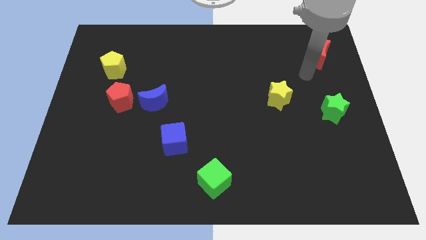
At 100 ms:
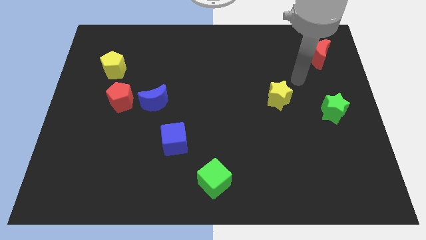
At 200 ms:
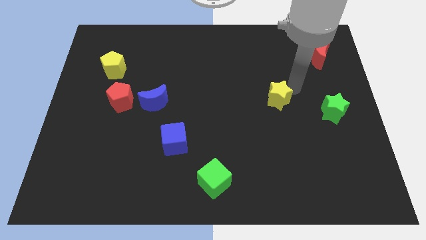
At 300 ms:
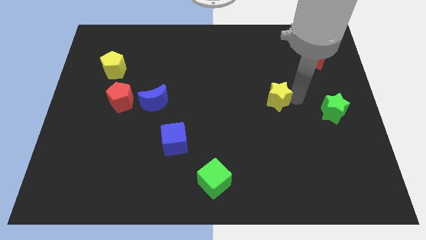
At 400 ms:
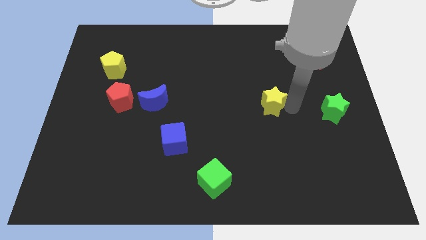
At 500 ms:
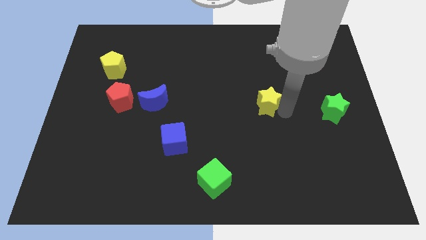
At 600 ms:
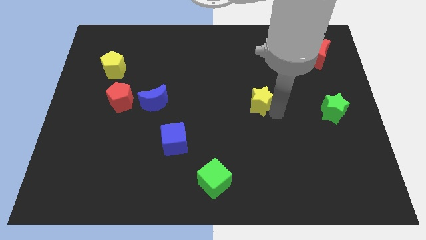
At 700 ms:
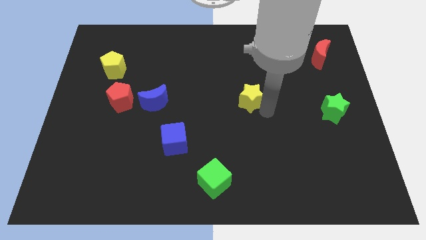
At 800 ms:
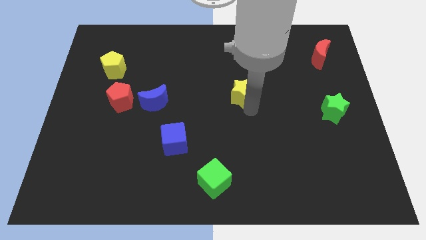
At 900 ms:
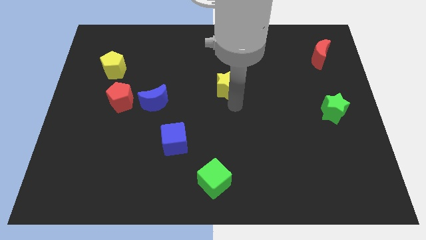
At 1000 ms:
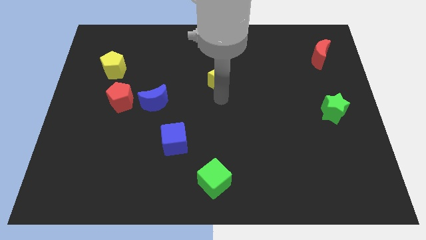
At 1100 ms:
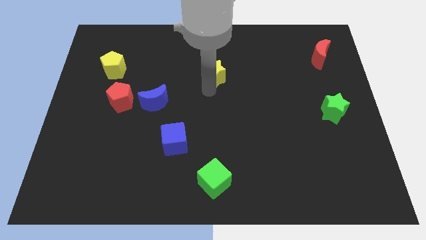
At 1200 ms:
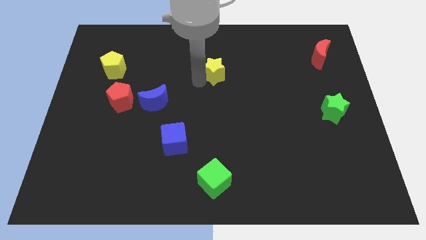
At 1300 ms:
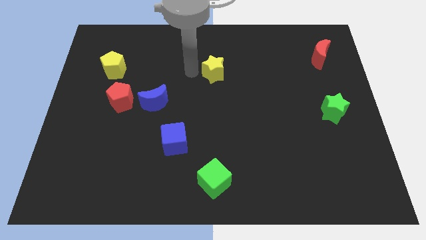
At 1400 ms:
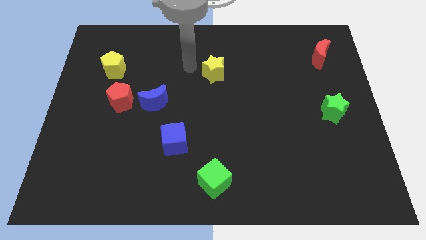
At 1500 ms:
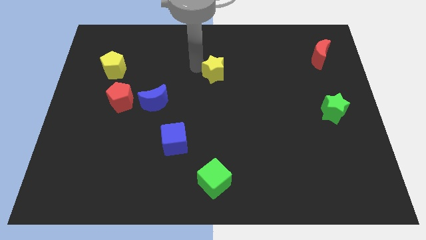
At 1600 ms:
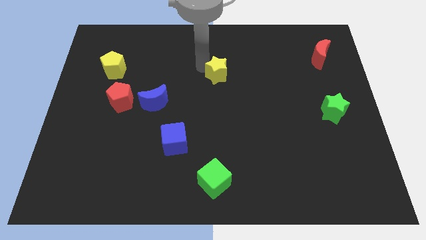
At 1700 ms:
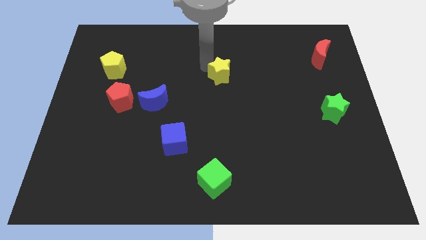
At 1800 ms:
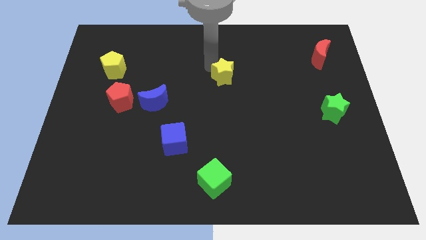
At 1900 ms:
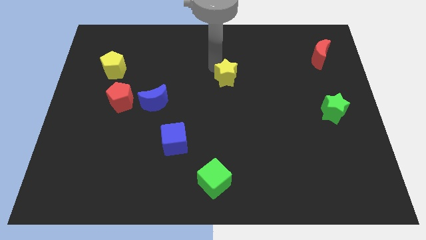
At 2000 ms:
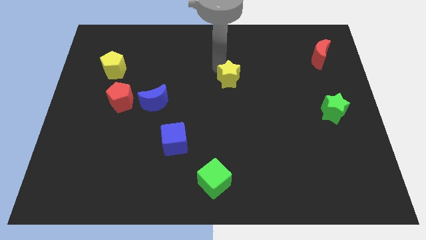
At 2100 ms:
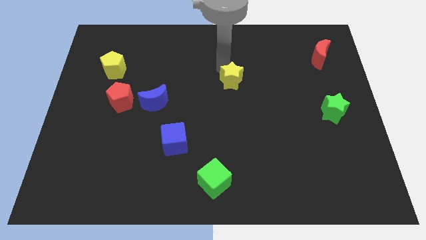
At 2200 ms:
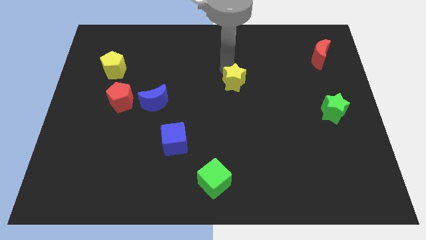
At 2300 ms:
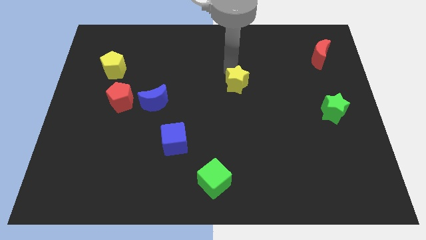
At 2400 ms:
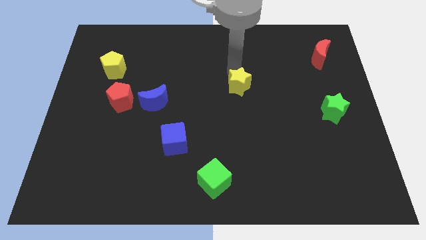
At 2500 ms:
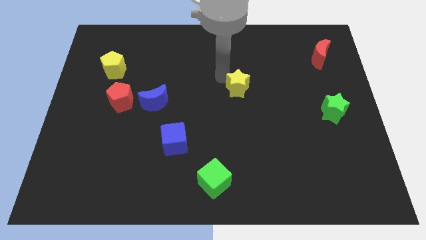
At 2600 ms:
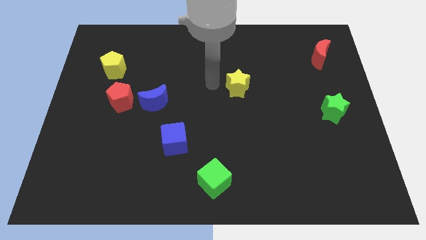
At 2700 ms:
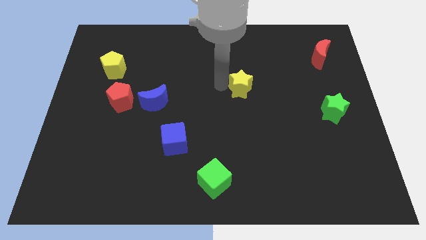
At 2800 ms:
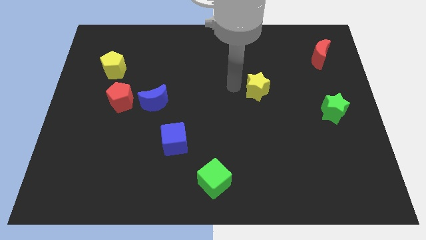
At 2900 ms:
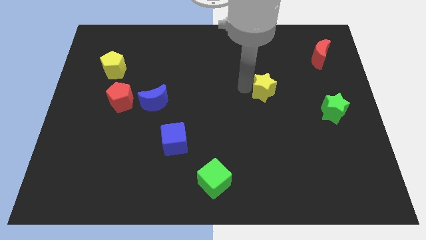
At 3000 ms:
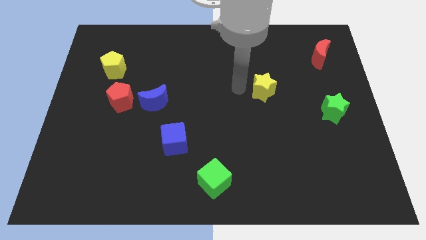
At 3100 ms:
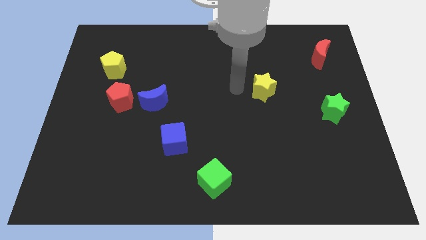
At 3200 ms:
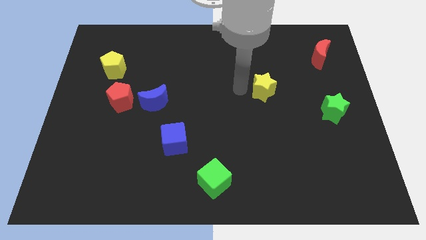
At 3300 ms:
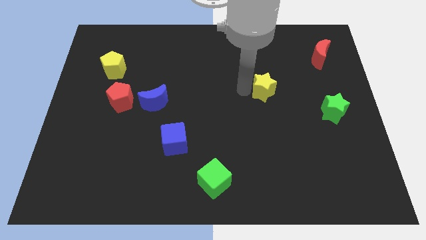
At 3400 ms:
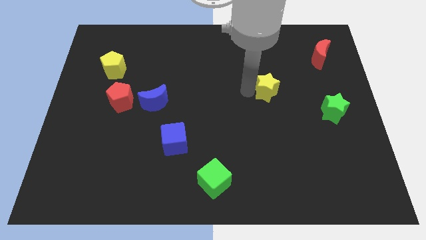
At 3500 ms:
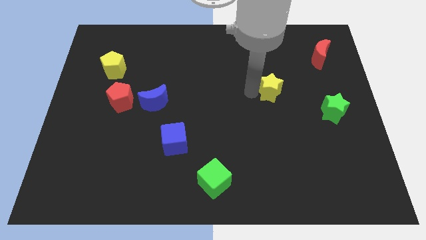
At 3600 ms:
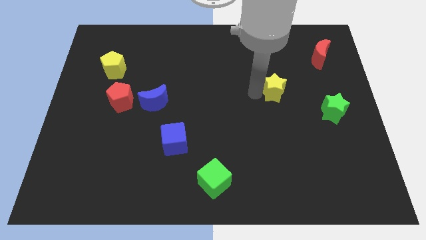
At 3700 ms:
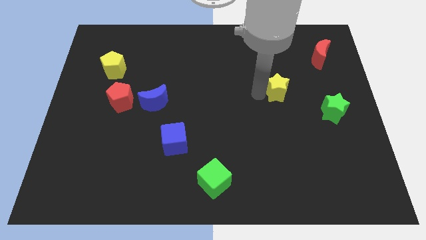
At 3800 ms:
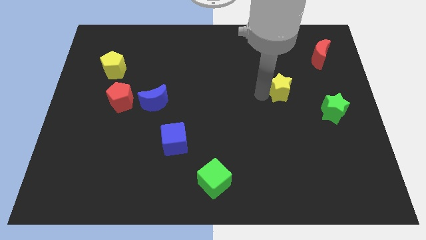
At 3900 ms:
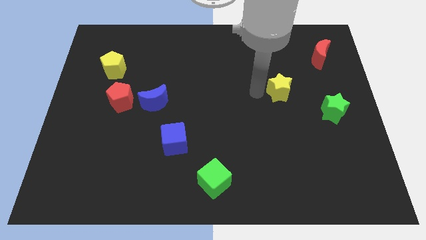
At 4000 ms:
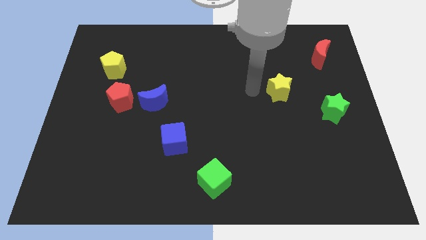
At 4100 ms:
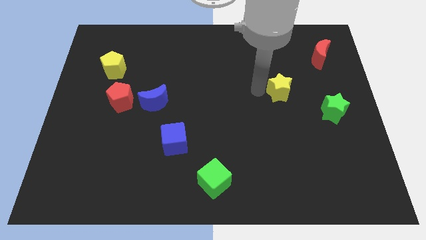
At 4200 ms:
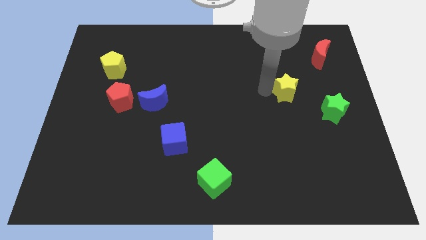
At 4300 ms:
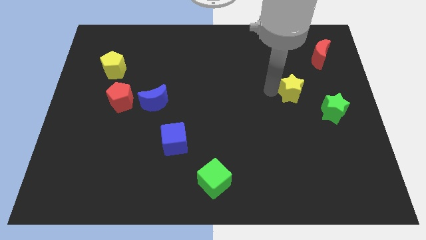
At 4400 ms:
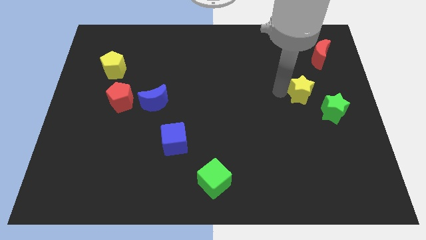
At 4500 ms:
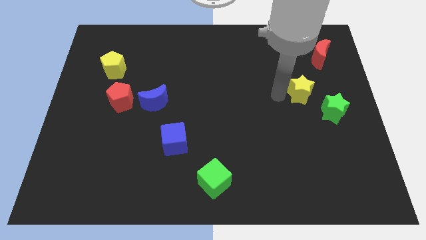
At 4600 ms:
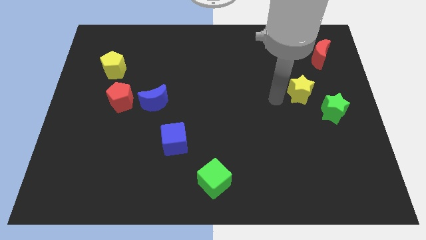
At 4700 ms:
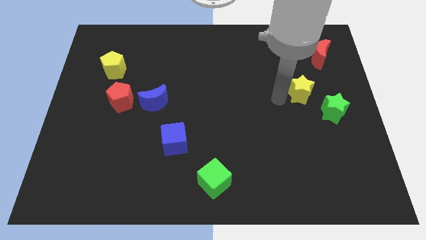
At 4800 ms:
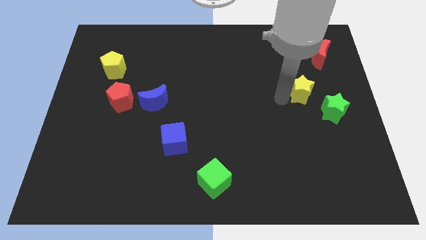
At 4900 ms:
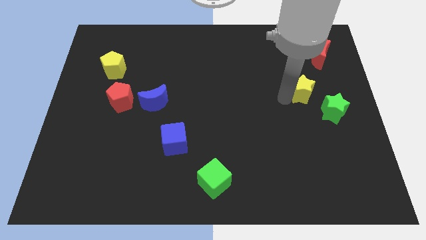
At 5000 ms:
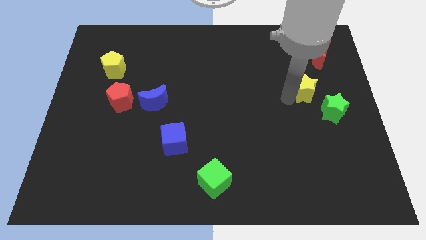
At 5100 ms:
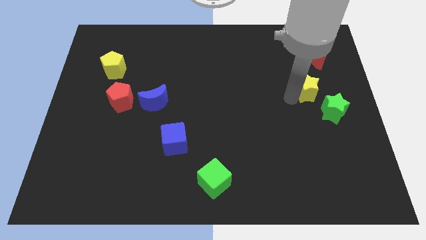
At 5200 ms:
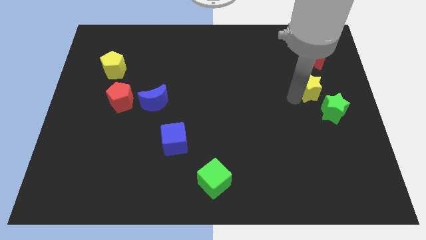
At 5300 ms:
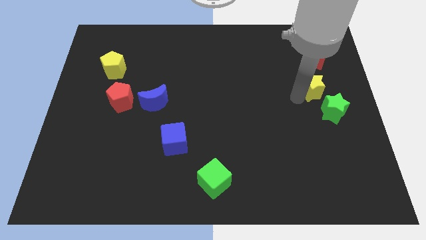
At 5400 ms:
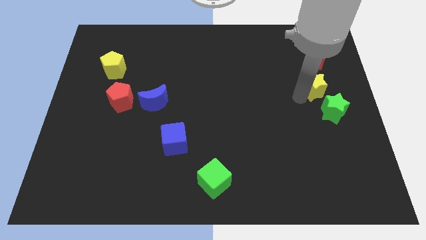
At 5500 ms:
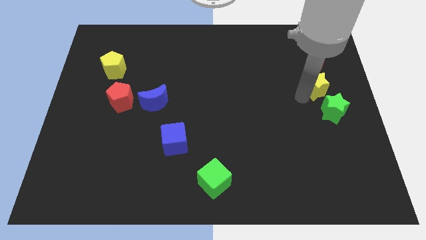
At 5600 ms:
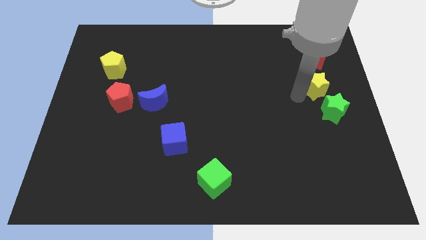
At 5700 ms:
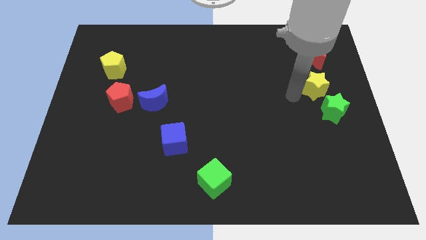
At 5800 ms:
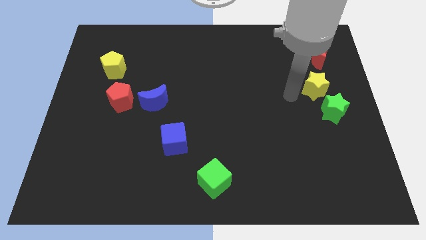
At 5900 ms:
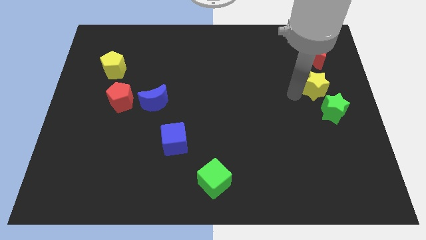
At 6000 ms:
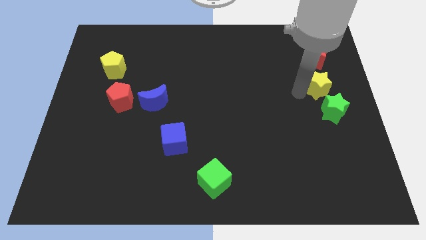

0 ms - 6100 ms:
push the yellow star to the center right

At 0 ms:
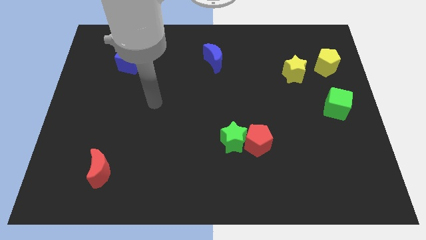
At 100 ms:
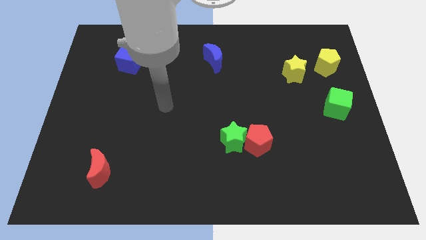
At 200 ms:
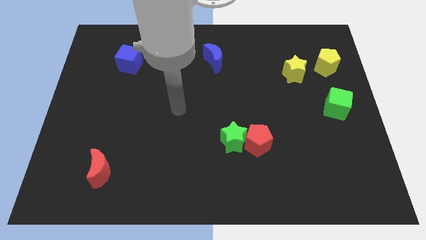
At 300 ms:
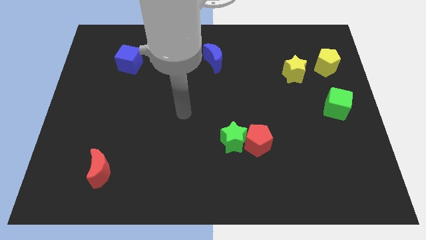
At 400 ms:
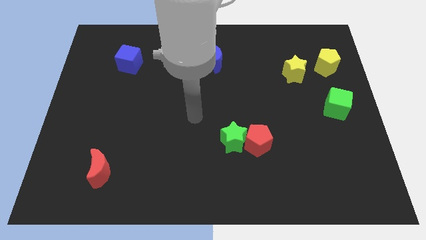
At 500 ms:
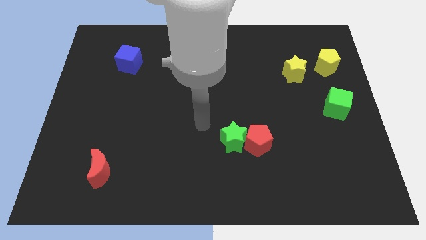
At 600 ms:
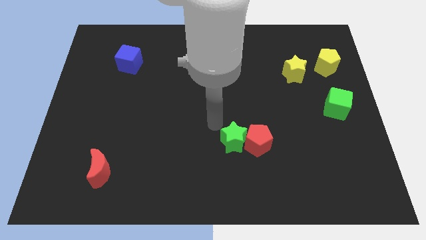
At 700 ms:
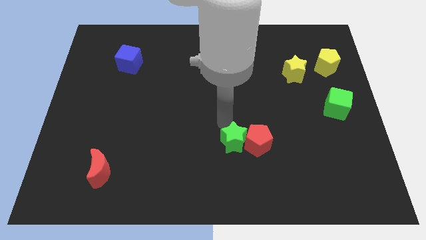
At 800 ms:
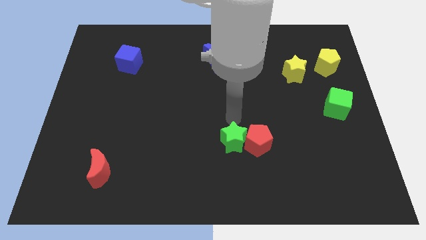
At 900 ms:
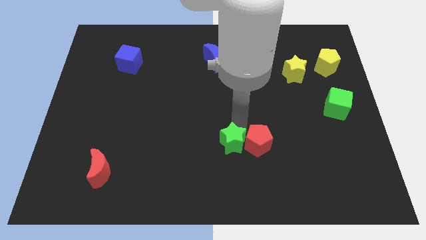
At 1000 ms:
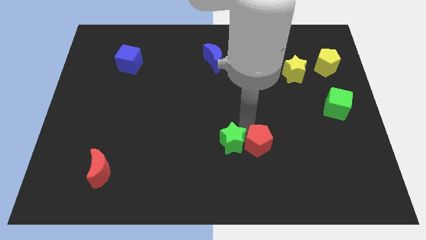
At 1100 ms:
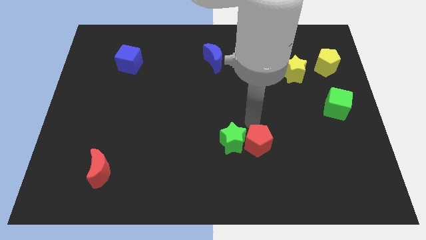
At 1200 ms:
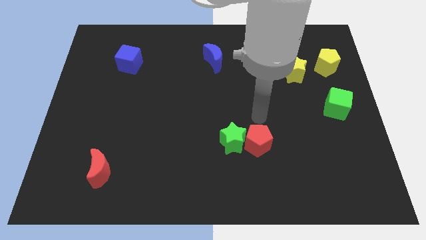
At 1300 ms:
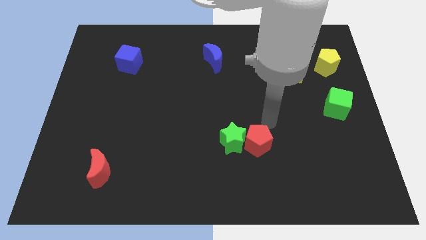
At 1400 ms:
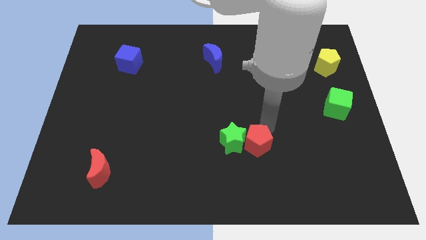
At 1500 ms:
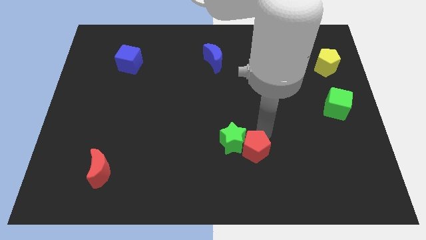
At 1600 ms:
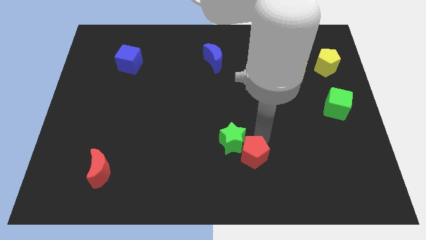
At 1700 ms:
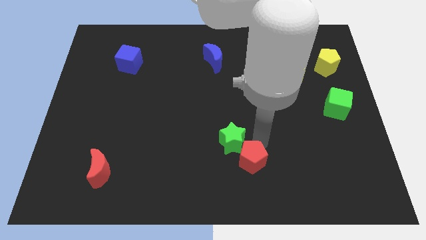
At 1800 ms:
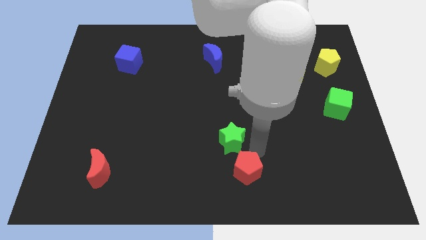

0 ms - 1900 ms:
move the red pentagon to the bottom
